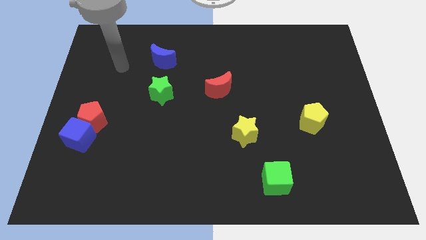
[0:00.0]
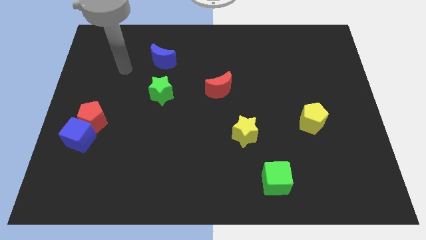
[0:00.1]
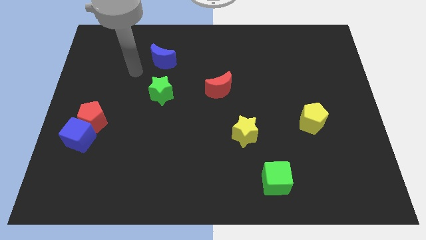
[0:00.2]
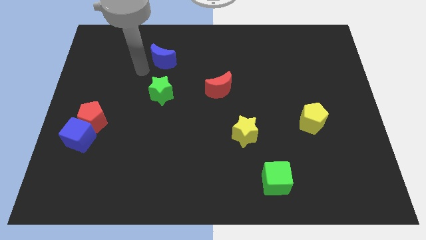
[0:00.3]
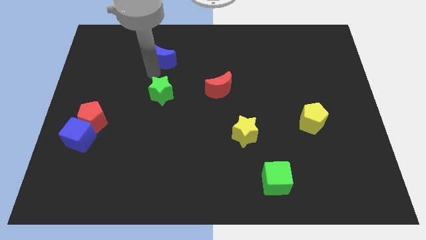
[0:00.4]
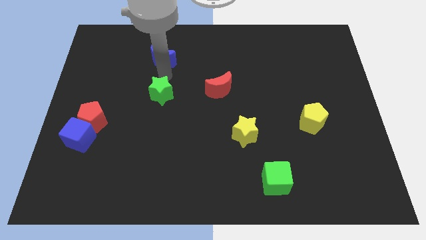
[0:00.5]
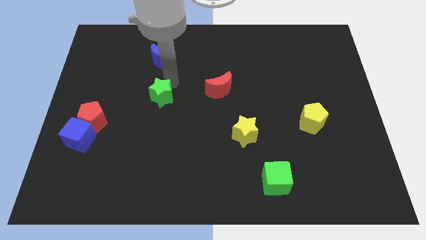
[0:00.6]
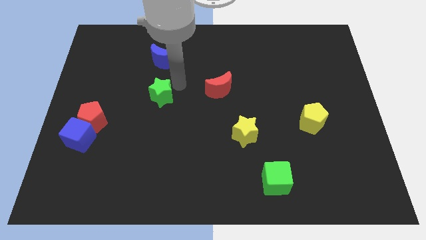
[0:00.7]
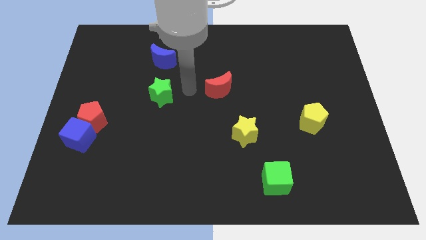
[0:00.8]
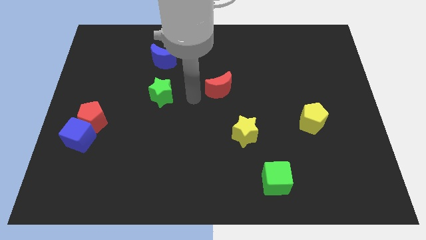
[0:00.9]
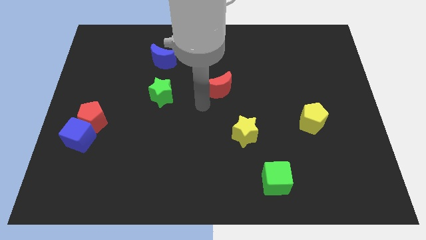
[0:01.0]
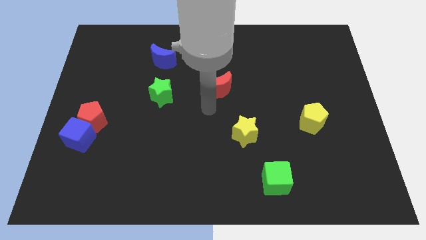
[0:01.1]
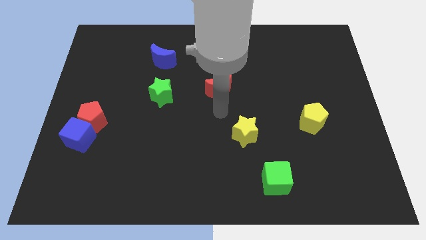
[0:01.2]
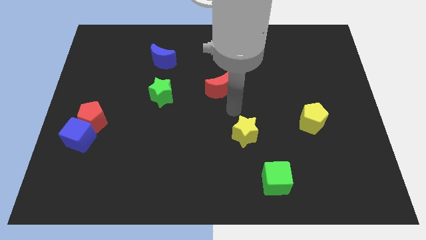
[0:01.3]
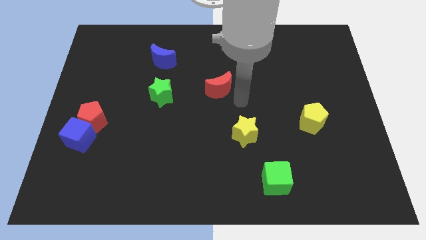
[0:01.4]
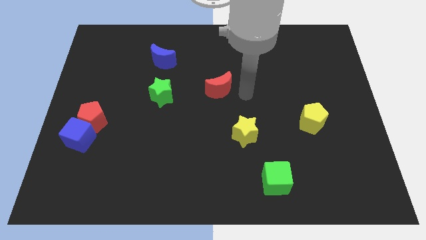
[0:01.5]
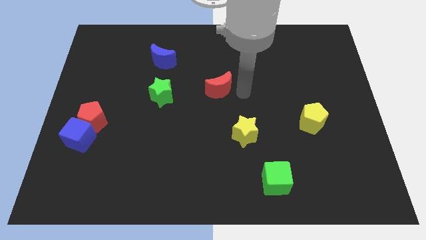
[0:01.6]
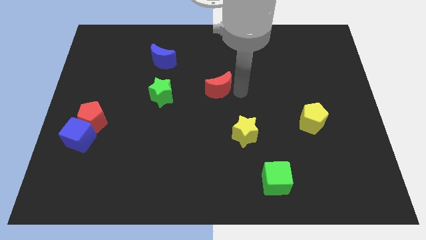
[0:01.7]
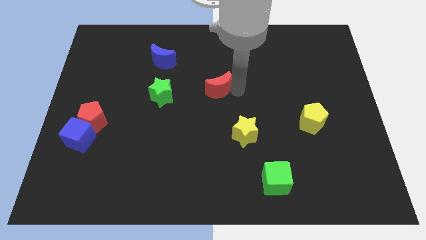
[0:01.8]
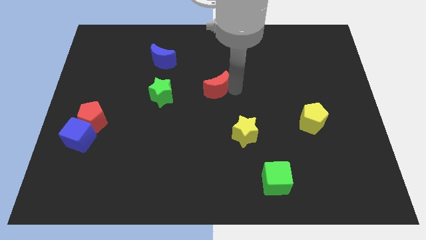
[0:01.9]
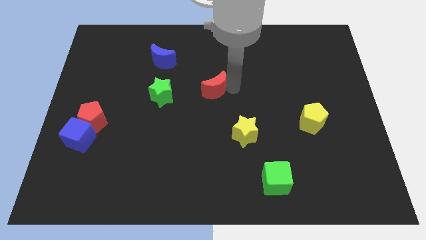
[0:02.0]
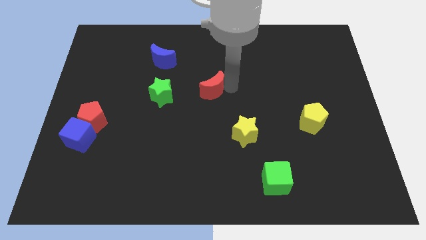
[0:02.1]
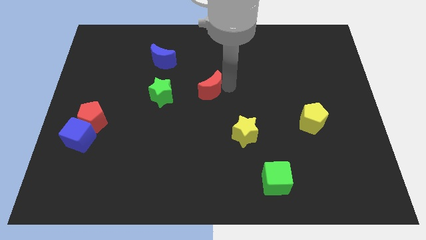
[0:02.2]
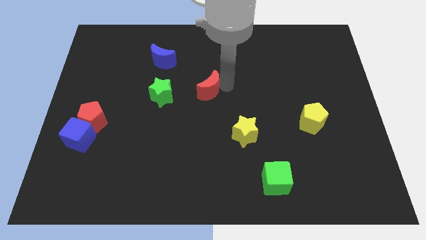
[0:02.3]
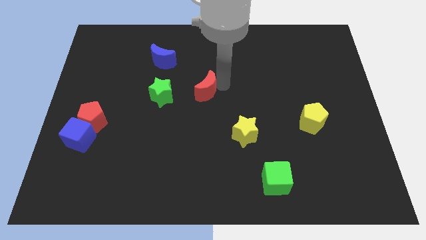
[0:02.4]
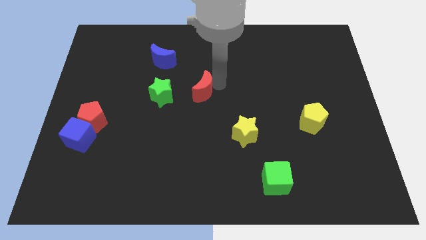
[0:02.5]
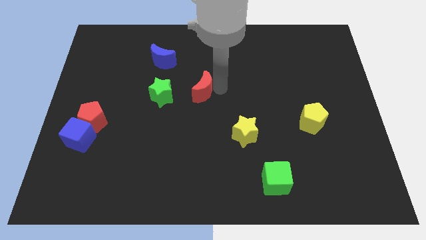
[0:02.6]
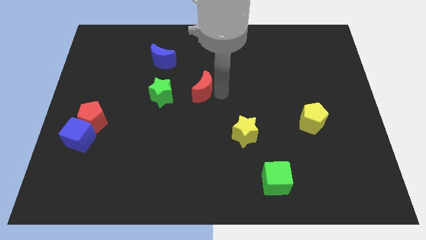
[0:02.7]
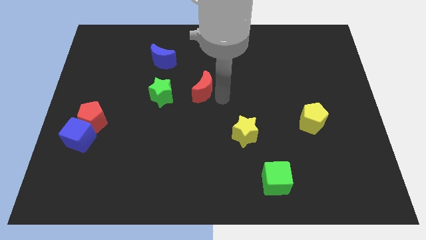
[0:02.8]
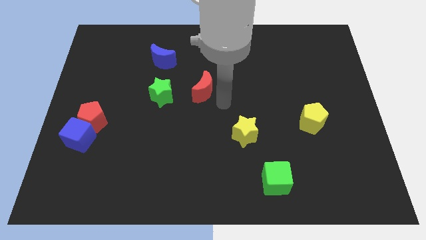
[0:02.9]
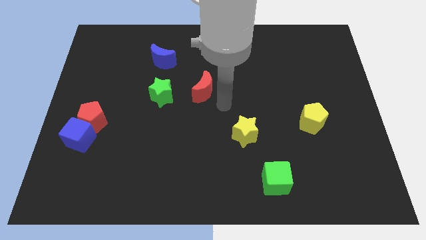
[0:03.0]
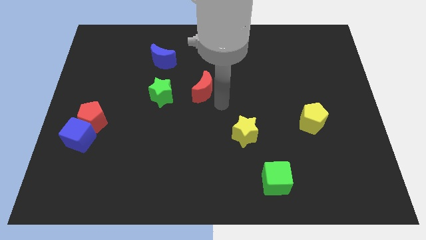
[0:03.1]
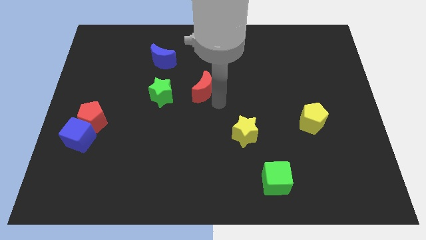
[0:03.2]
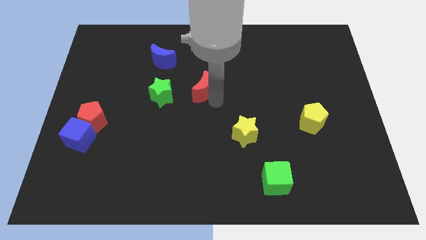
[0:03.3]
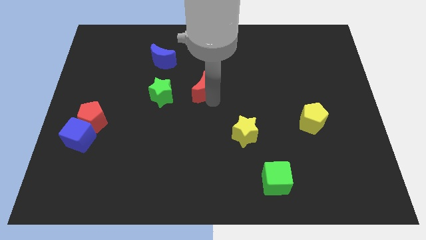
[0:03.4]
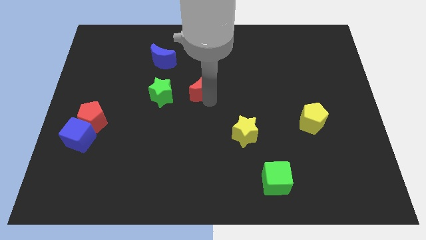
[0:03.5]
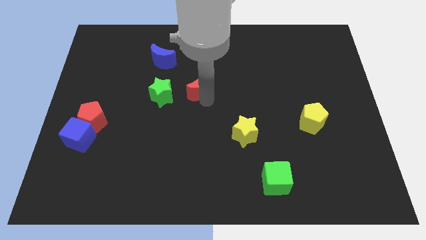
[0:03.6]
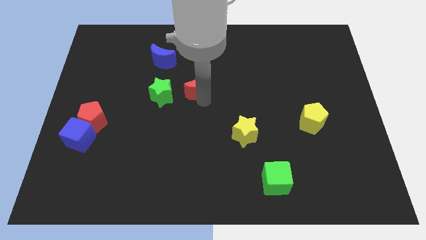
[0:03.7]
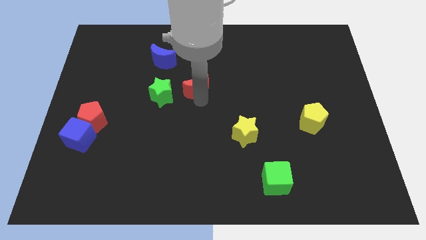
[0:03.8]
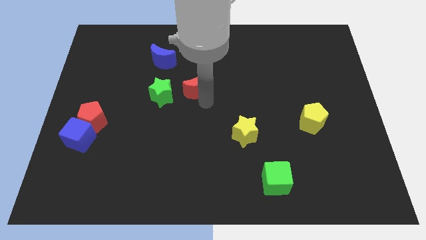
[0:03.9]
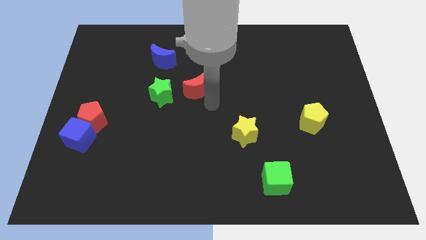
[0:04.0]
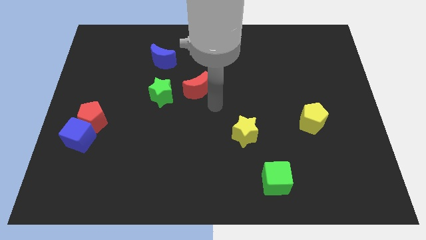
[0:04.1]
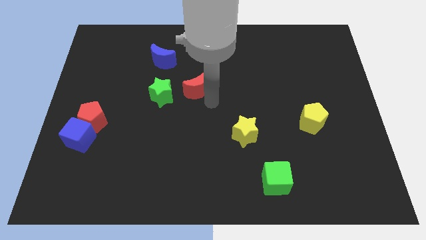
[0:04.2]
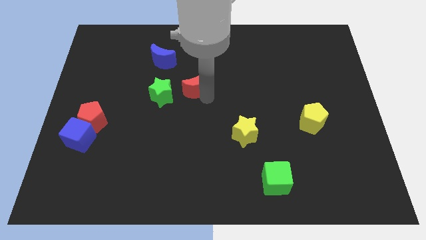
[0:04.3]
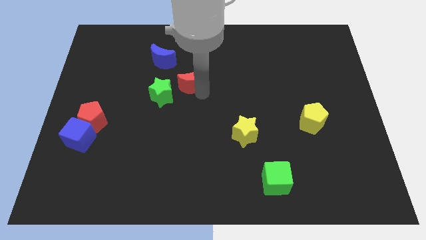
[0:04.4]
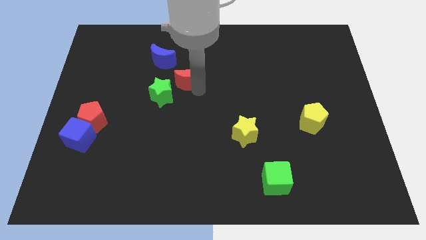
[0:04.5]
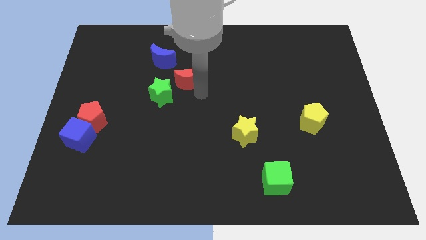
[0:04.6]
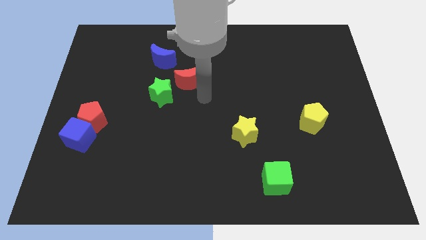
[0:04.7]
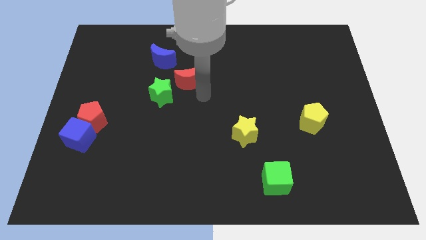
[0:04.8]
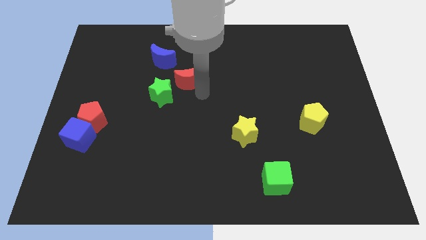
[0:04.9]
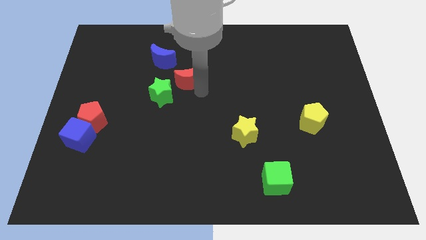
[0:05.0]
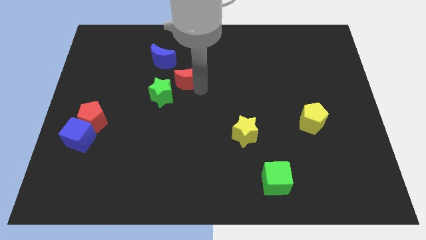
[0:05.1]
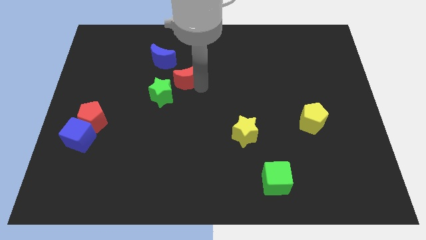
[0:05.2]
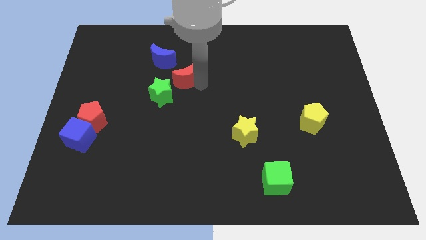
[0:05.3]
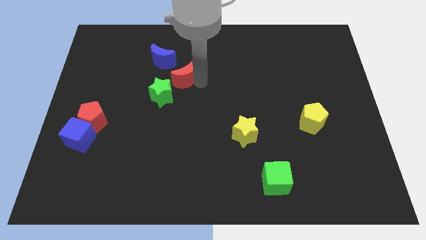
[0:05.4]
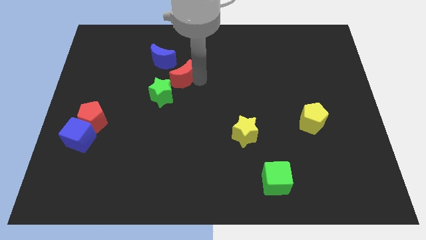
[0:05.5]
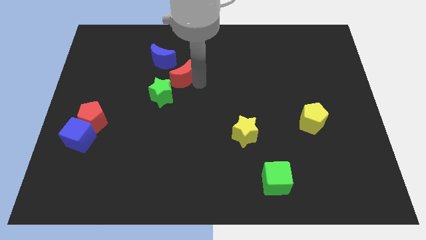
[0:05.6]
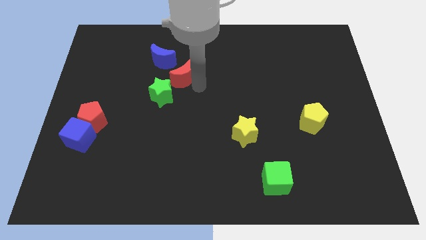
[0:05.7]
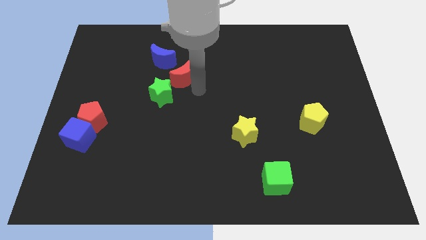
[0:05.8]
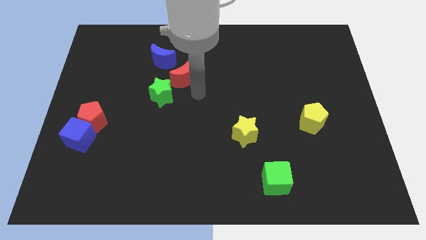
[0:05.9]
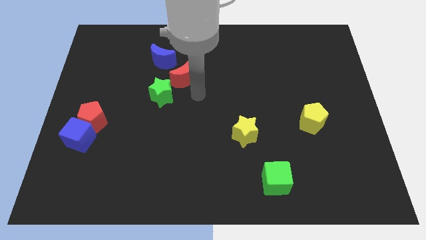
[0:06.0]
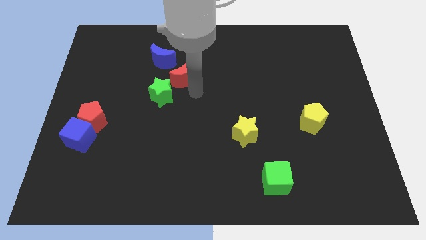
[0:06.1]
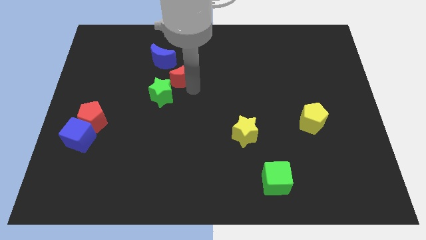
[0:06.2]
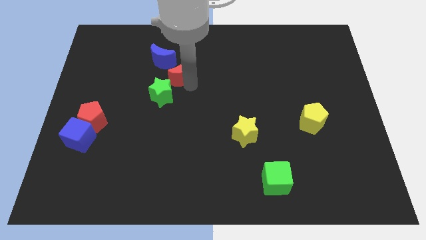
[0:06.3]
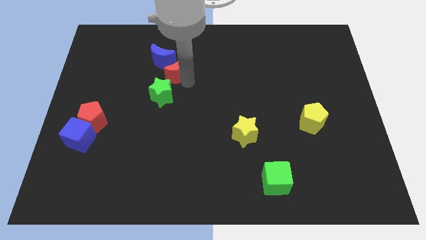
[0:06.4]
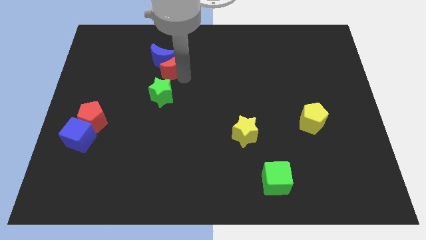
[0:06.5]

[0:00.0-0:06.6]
put the red moon close to the blue moon
